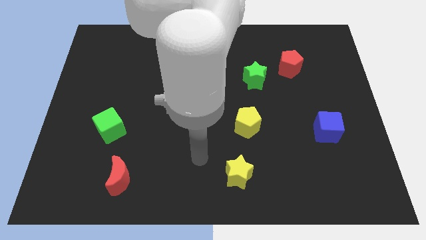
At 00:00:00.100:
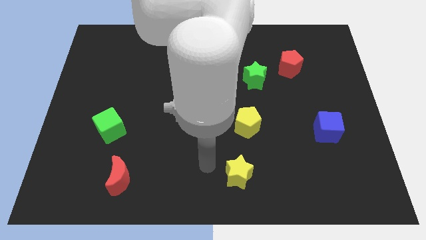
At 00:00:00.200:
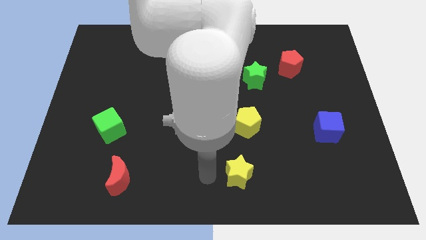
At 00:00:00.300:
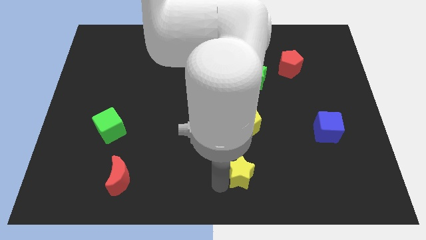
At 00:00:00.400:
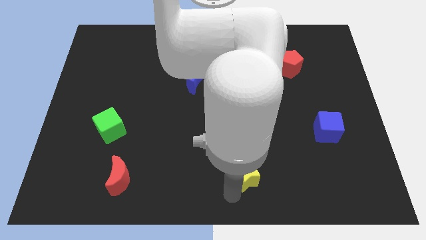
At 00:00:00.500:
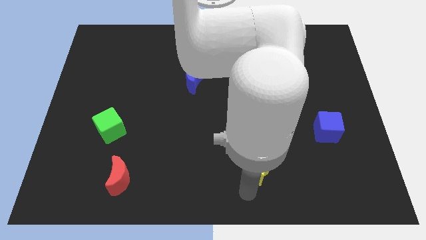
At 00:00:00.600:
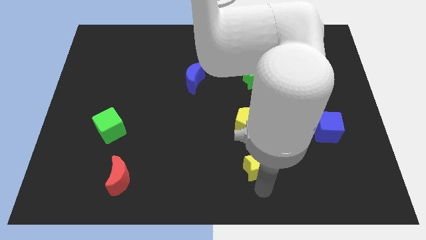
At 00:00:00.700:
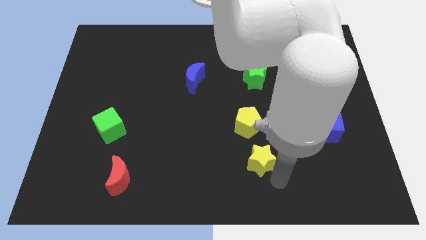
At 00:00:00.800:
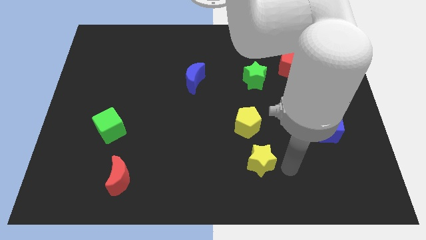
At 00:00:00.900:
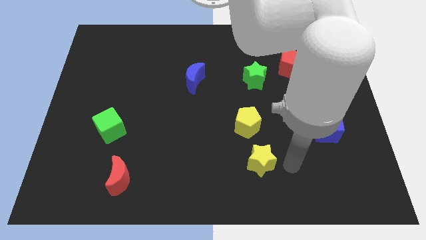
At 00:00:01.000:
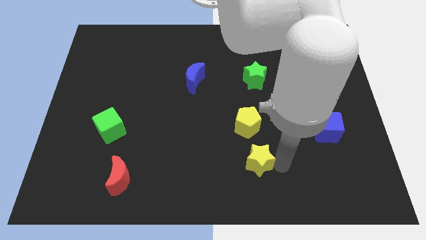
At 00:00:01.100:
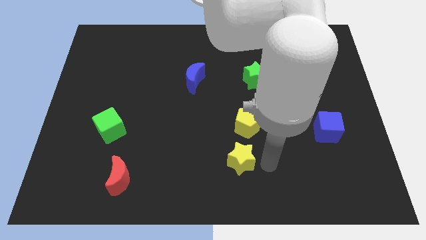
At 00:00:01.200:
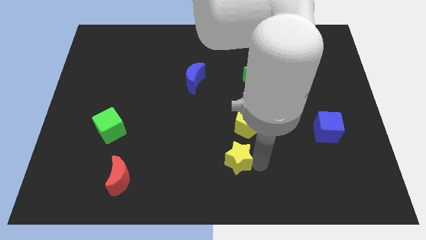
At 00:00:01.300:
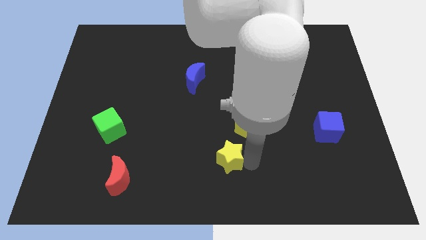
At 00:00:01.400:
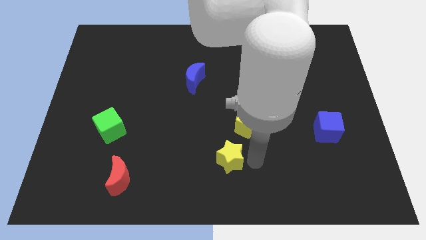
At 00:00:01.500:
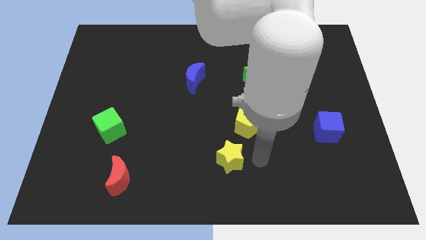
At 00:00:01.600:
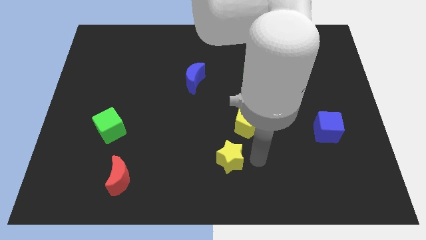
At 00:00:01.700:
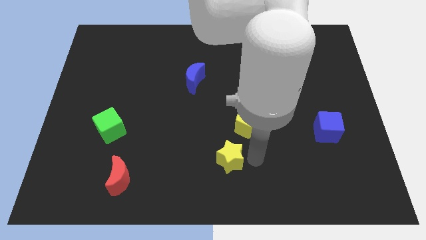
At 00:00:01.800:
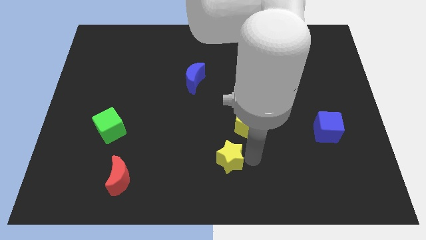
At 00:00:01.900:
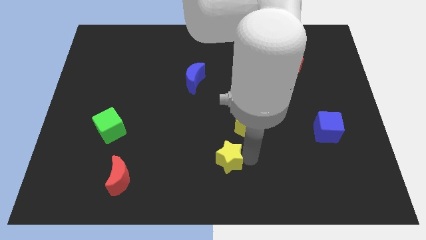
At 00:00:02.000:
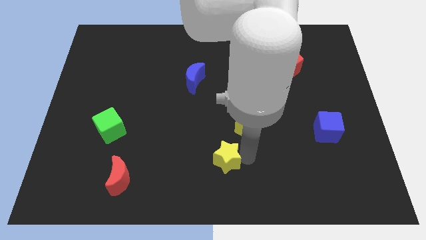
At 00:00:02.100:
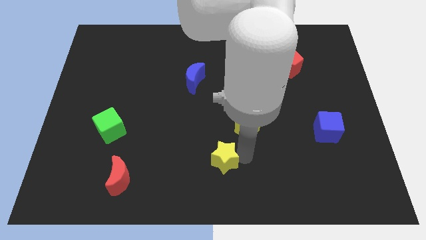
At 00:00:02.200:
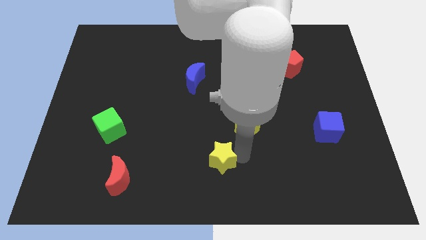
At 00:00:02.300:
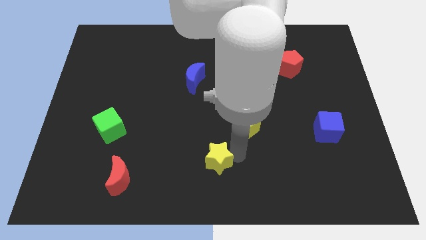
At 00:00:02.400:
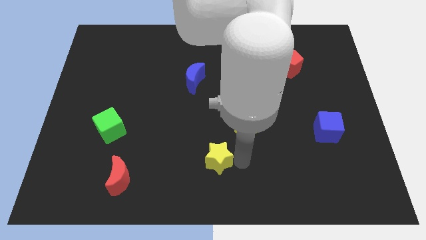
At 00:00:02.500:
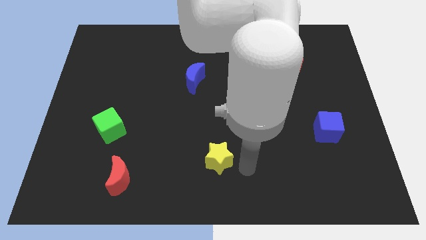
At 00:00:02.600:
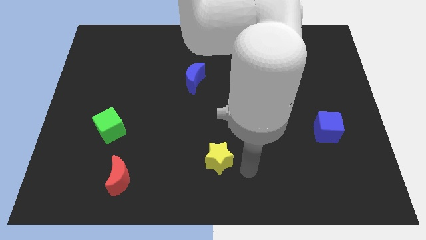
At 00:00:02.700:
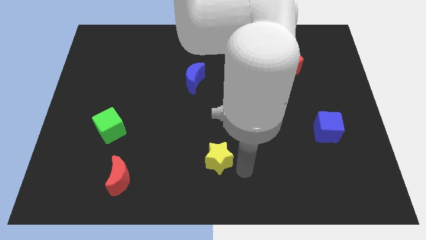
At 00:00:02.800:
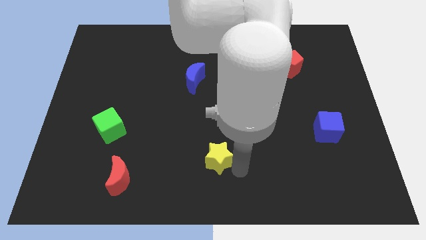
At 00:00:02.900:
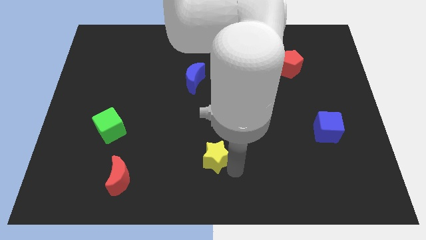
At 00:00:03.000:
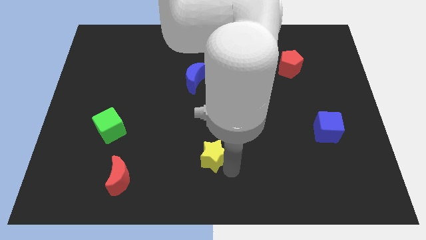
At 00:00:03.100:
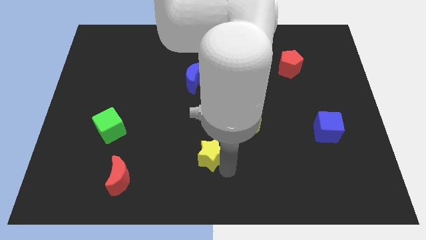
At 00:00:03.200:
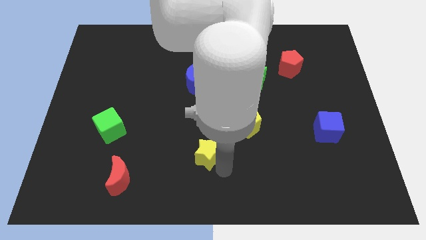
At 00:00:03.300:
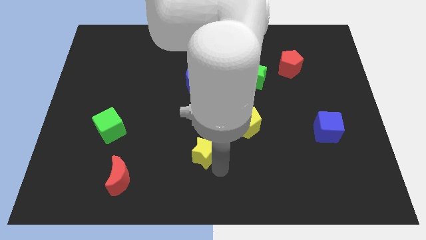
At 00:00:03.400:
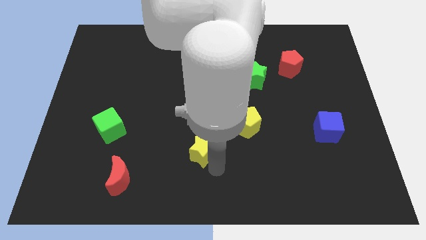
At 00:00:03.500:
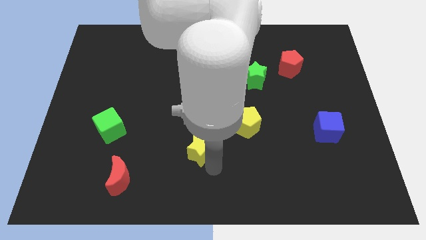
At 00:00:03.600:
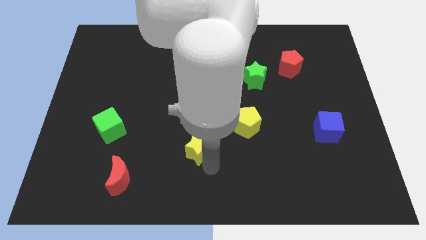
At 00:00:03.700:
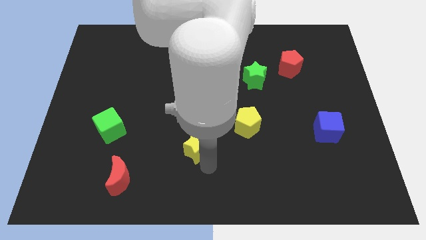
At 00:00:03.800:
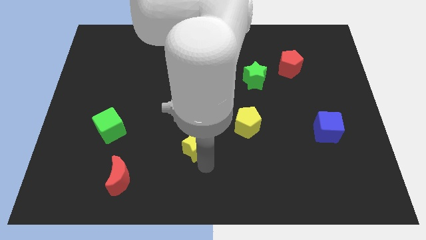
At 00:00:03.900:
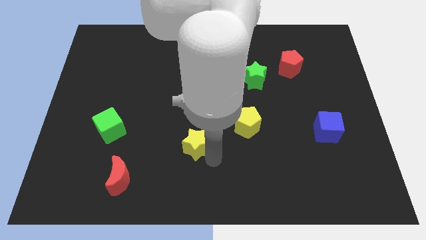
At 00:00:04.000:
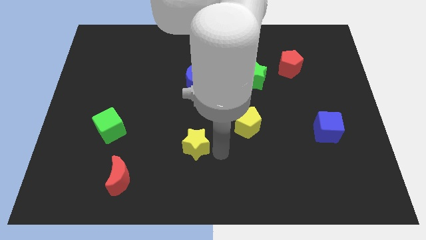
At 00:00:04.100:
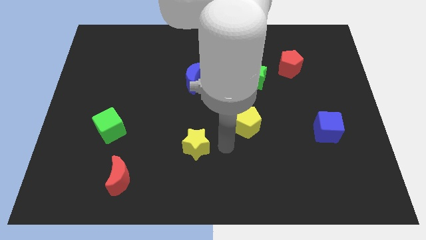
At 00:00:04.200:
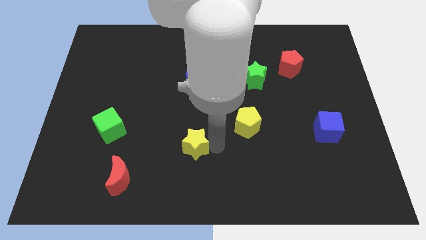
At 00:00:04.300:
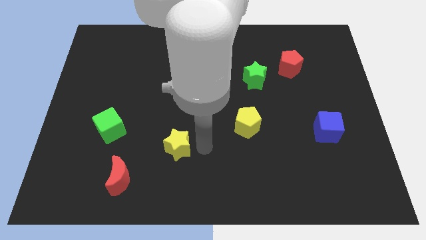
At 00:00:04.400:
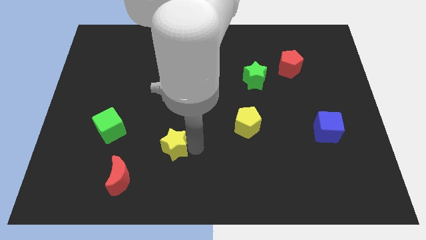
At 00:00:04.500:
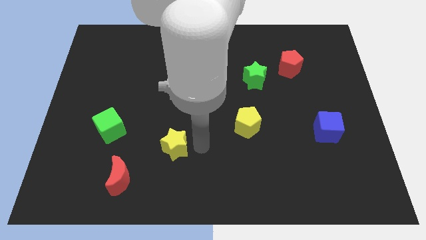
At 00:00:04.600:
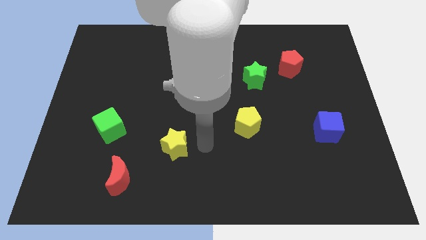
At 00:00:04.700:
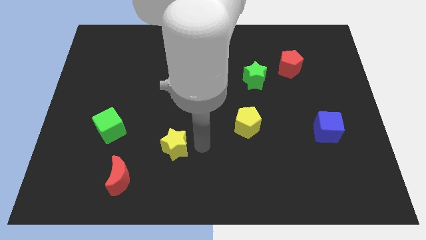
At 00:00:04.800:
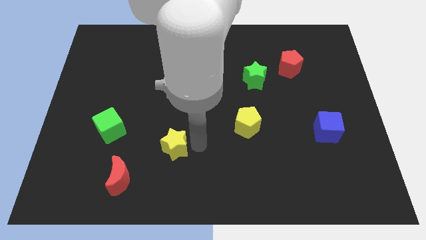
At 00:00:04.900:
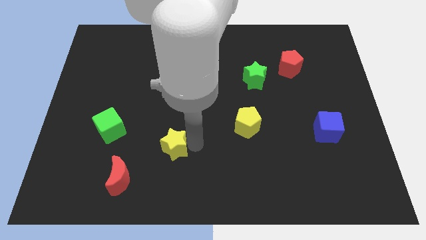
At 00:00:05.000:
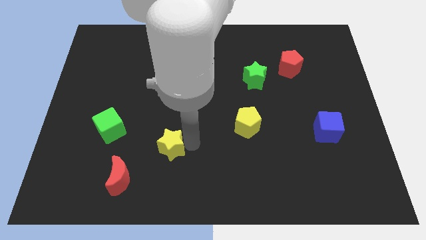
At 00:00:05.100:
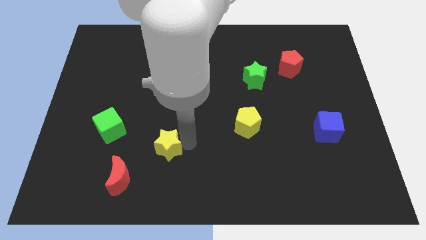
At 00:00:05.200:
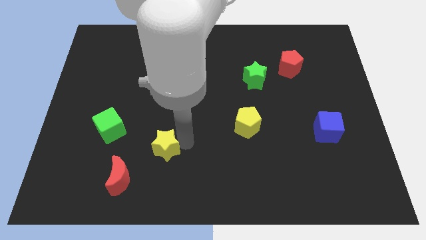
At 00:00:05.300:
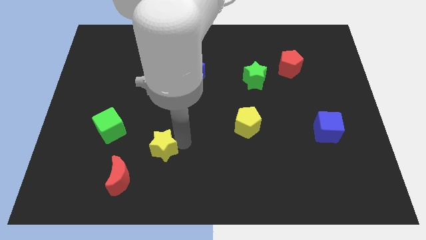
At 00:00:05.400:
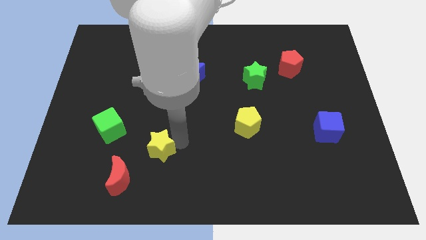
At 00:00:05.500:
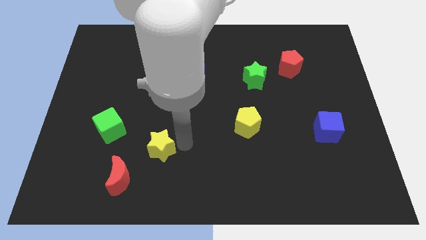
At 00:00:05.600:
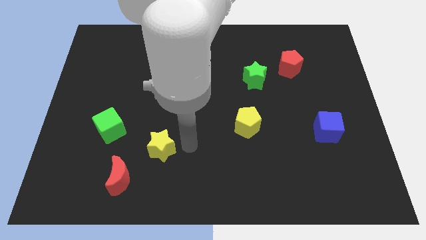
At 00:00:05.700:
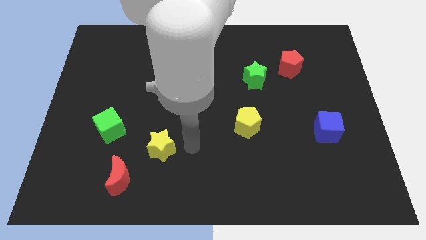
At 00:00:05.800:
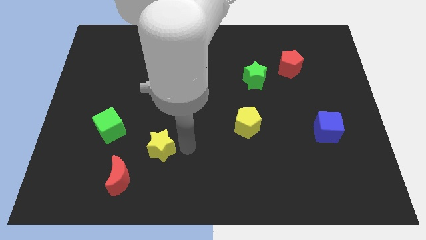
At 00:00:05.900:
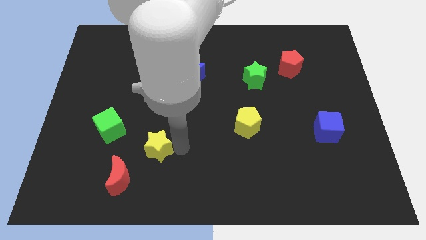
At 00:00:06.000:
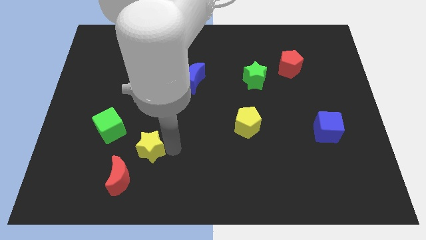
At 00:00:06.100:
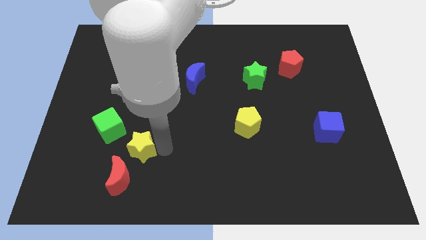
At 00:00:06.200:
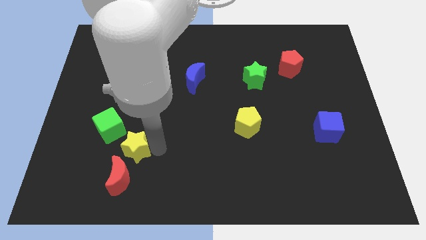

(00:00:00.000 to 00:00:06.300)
push the yellow star to the left

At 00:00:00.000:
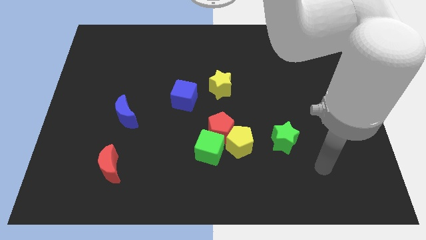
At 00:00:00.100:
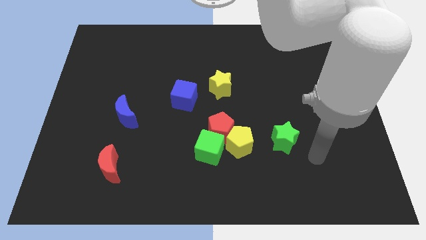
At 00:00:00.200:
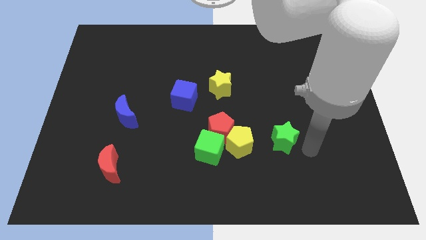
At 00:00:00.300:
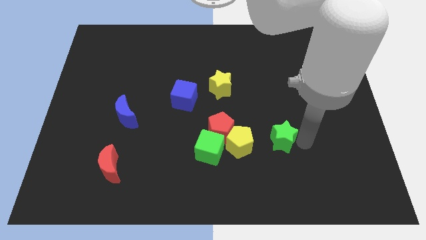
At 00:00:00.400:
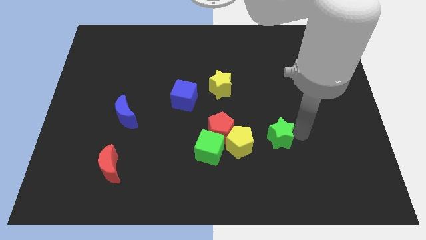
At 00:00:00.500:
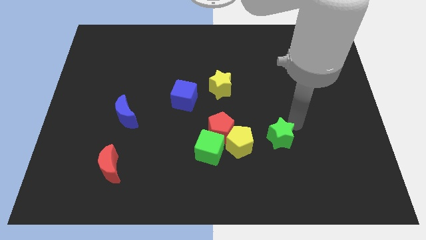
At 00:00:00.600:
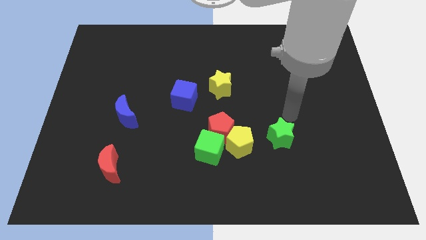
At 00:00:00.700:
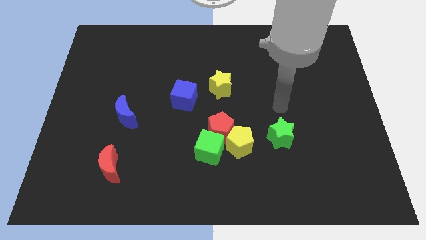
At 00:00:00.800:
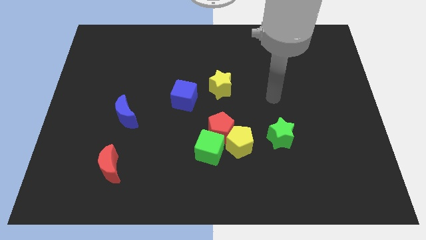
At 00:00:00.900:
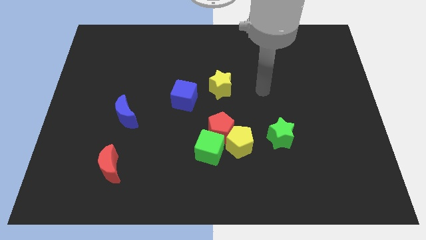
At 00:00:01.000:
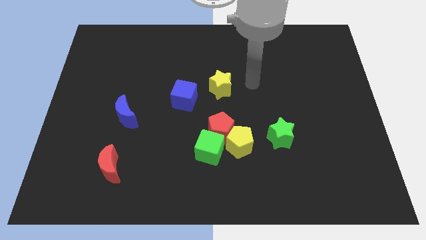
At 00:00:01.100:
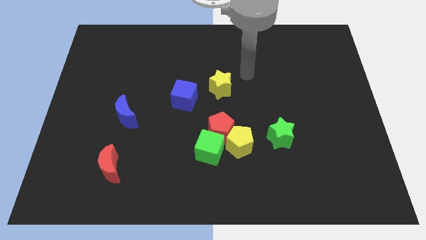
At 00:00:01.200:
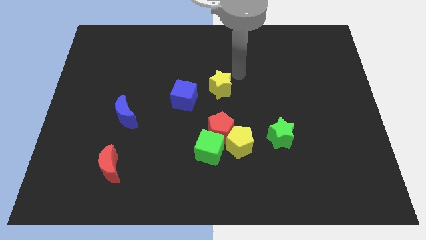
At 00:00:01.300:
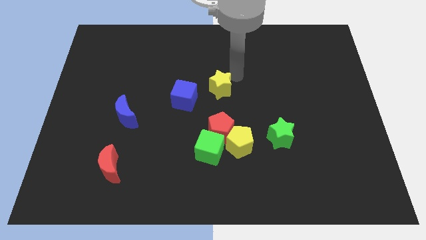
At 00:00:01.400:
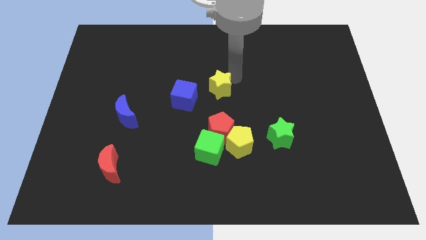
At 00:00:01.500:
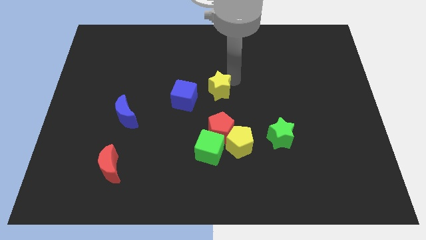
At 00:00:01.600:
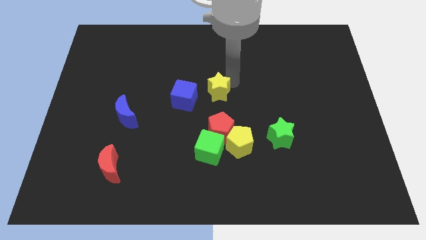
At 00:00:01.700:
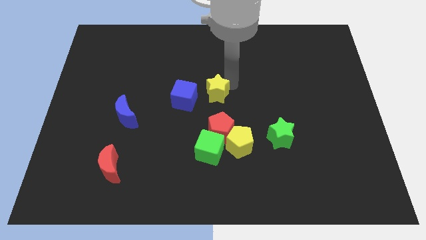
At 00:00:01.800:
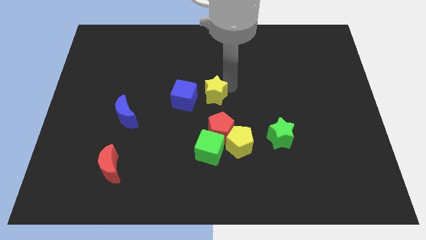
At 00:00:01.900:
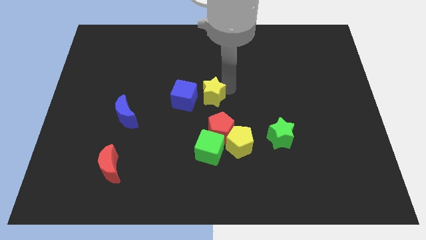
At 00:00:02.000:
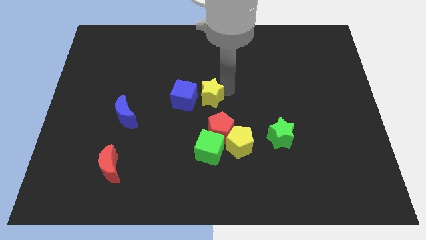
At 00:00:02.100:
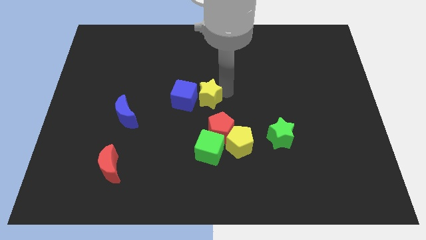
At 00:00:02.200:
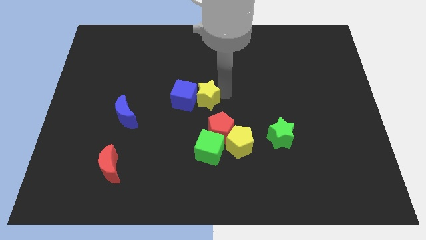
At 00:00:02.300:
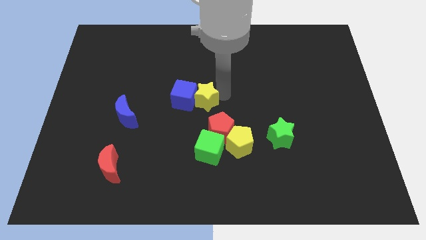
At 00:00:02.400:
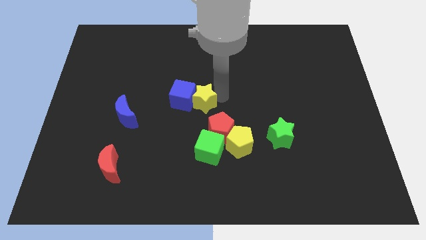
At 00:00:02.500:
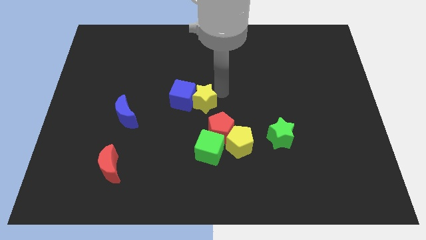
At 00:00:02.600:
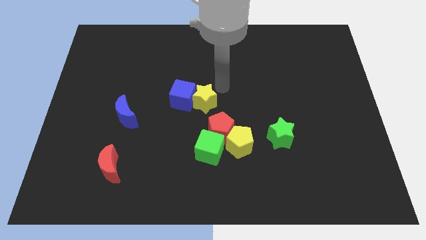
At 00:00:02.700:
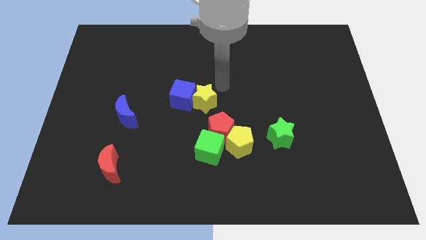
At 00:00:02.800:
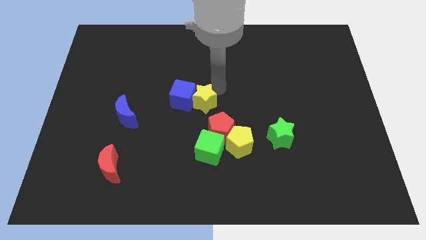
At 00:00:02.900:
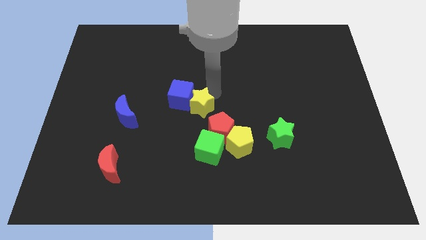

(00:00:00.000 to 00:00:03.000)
move the yellow star somewhat down and then left
